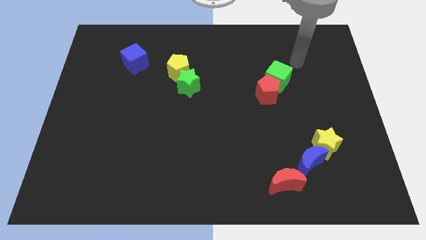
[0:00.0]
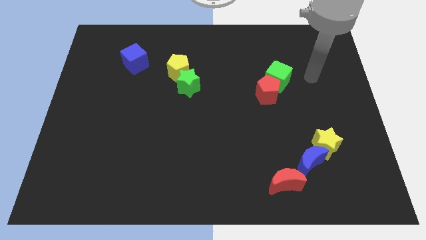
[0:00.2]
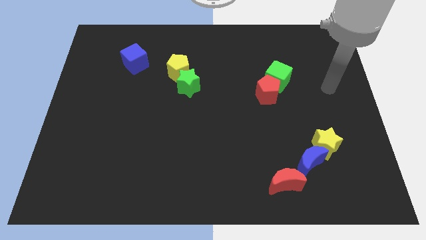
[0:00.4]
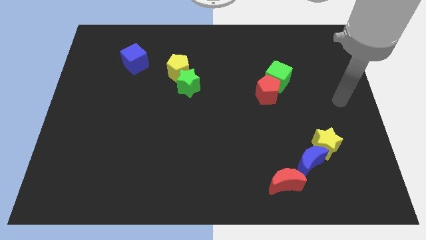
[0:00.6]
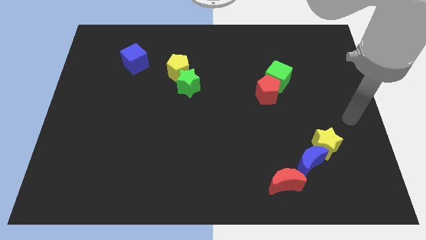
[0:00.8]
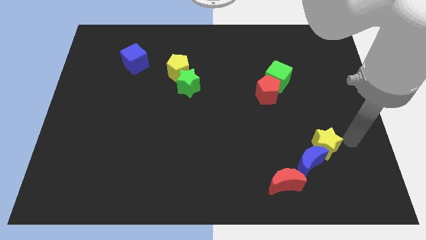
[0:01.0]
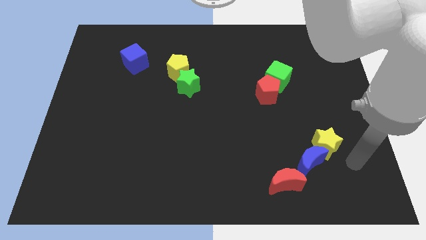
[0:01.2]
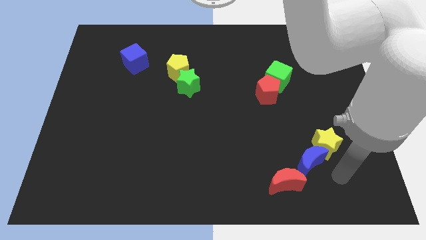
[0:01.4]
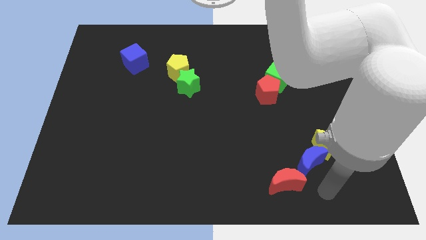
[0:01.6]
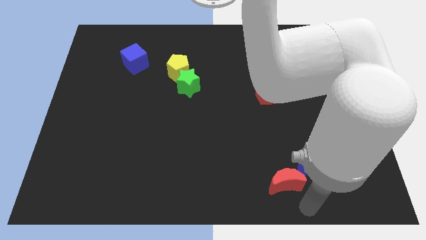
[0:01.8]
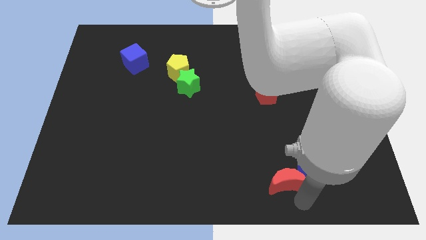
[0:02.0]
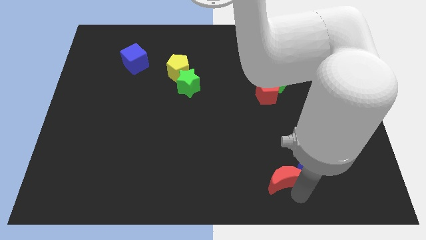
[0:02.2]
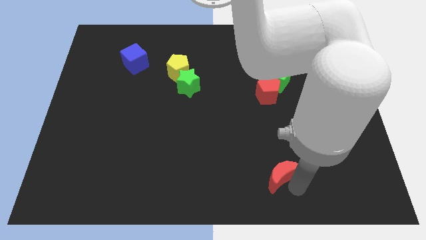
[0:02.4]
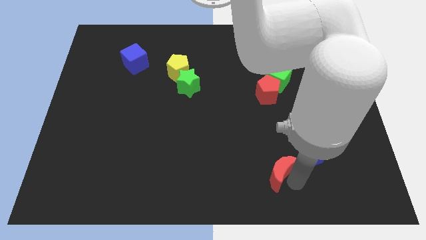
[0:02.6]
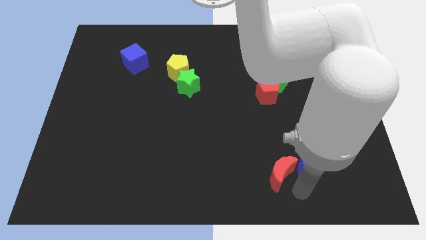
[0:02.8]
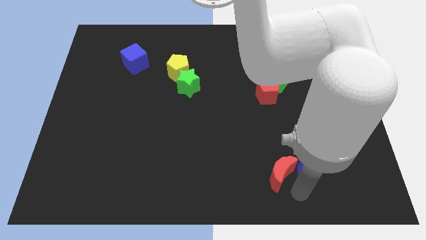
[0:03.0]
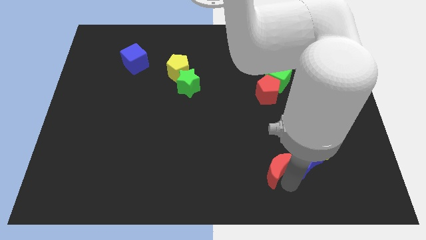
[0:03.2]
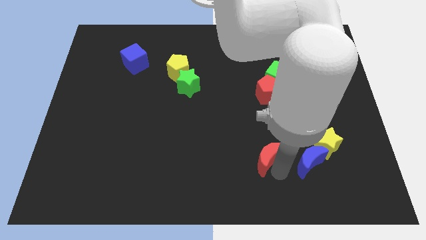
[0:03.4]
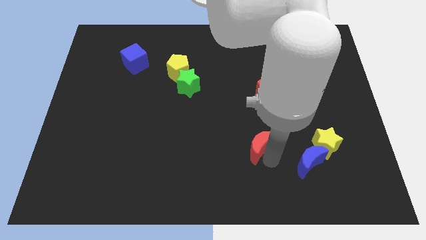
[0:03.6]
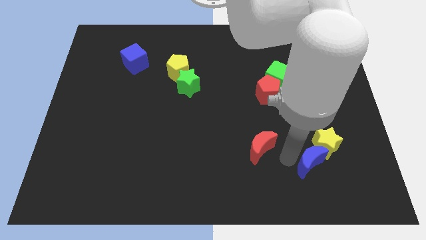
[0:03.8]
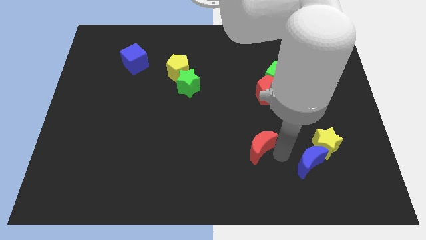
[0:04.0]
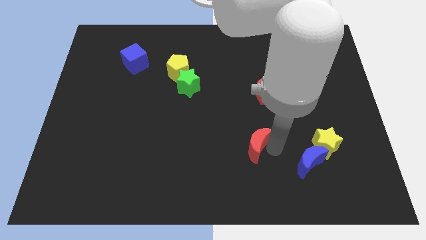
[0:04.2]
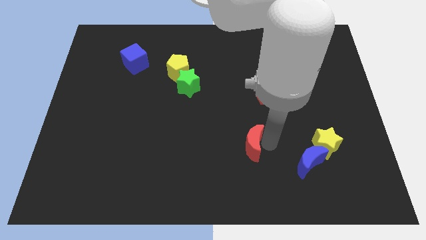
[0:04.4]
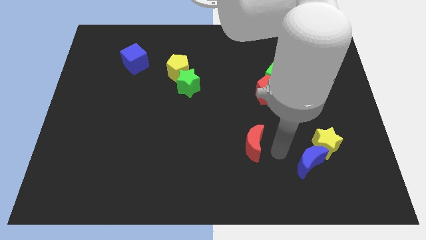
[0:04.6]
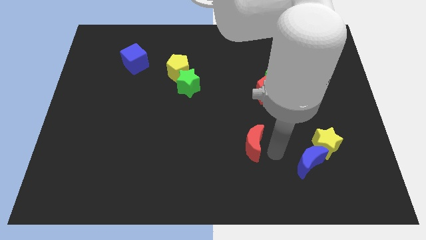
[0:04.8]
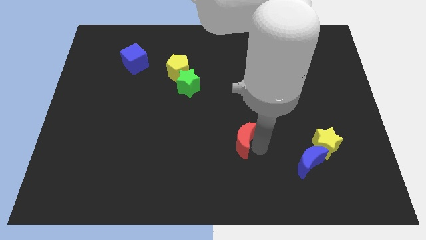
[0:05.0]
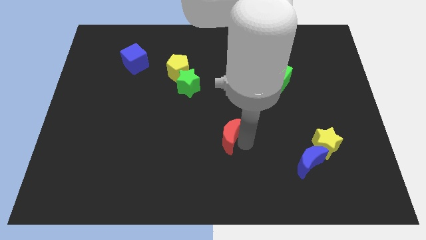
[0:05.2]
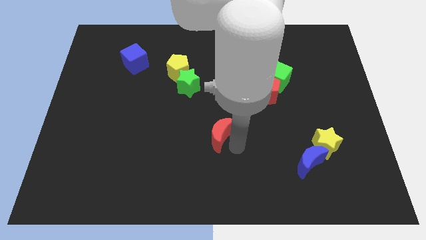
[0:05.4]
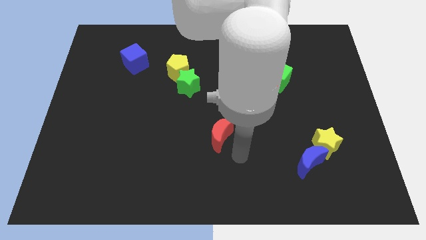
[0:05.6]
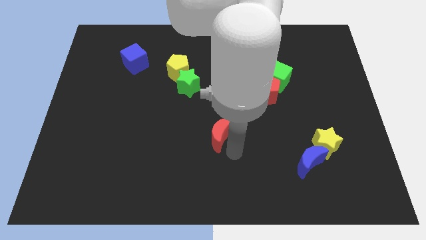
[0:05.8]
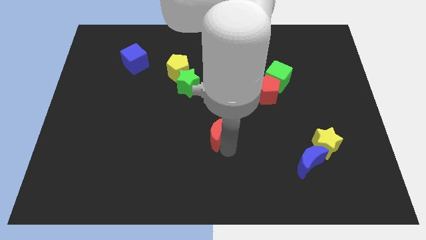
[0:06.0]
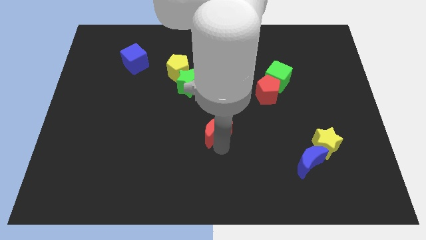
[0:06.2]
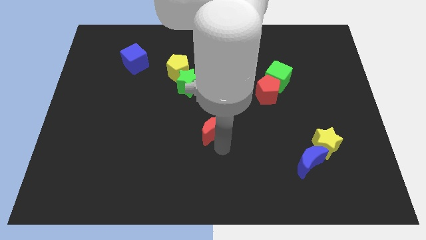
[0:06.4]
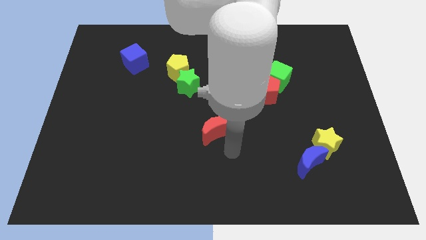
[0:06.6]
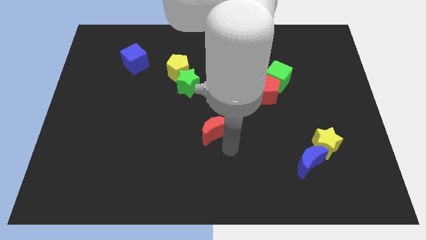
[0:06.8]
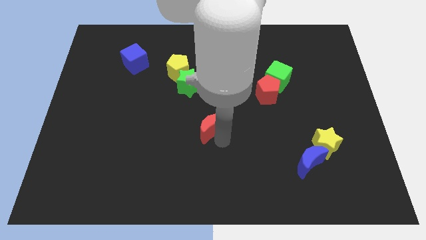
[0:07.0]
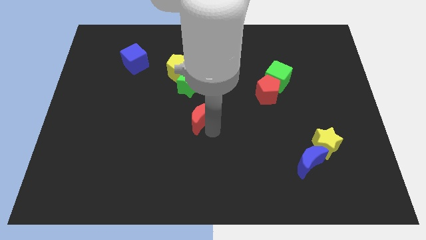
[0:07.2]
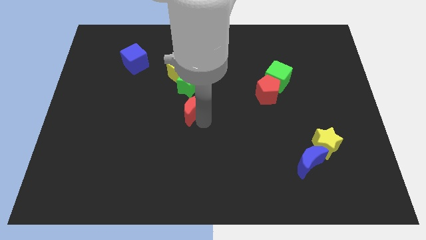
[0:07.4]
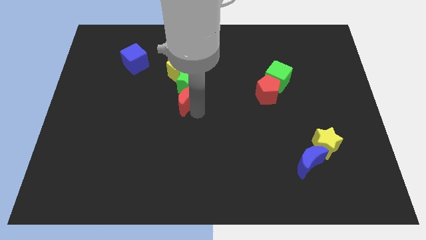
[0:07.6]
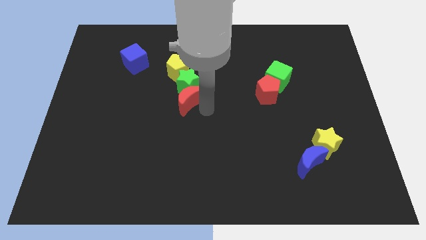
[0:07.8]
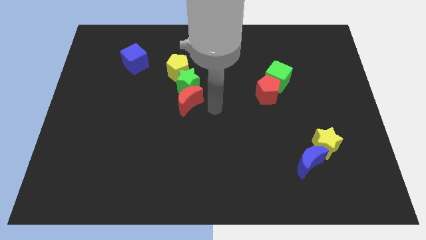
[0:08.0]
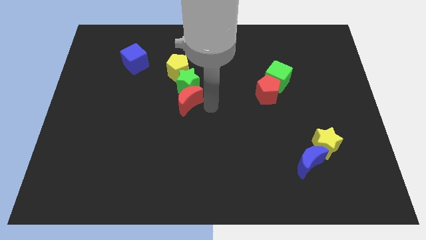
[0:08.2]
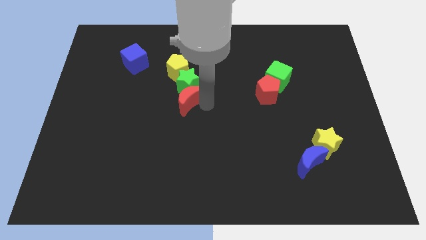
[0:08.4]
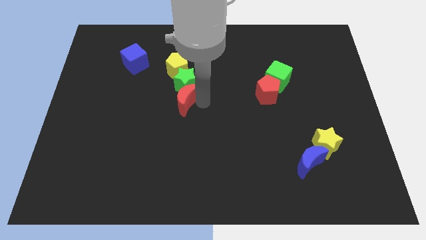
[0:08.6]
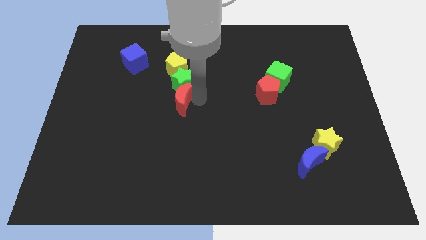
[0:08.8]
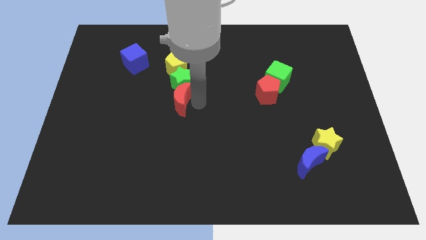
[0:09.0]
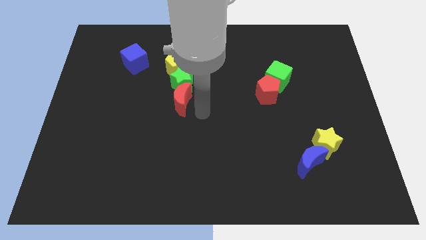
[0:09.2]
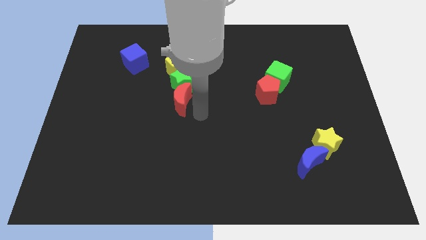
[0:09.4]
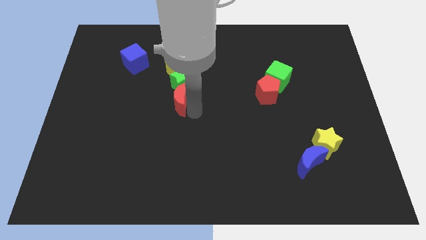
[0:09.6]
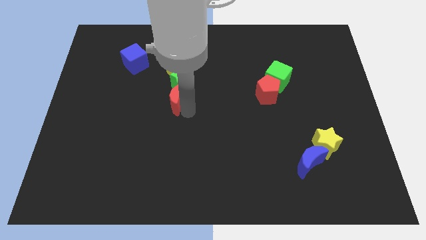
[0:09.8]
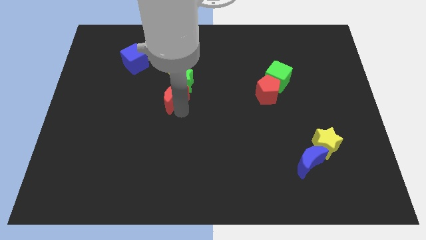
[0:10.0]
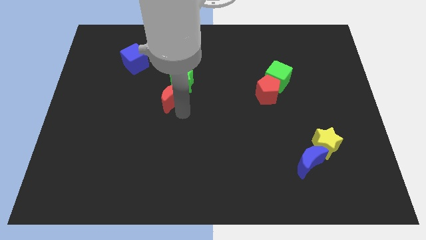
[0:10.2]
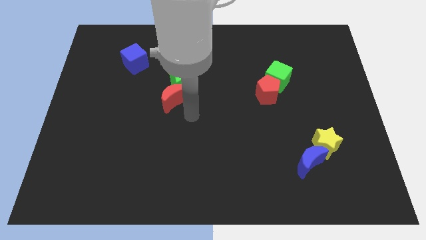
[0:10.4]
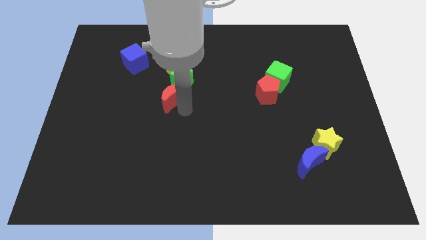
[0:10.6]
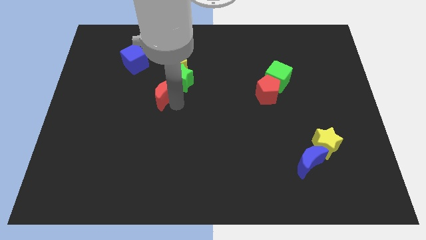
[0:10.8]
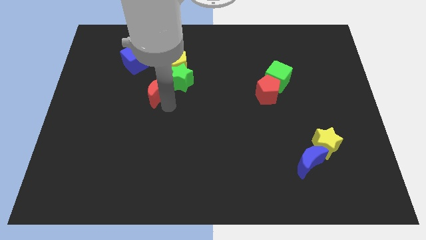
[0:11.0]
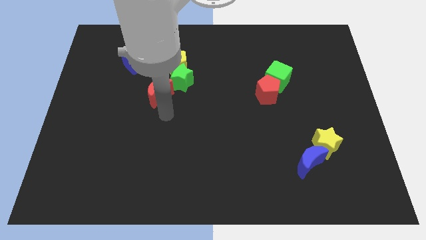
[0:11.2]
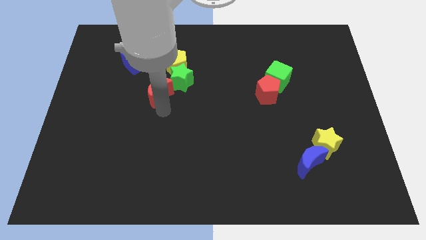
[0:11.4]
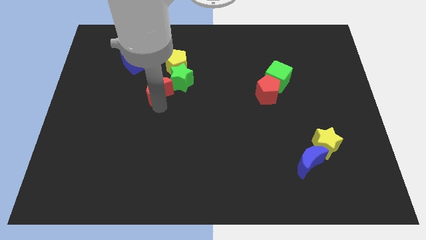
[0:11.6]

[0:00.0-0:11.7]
move the red moon to the bottom right side of the blue cube

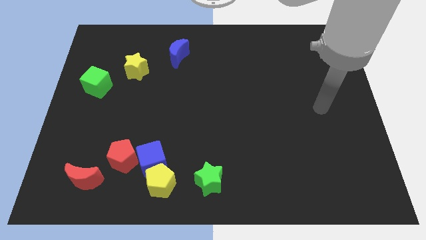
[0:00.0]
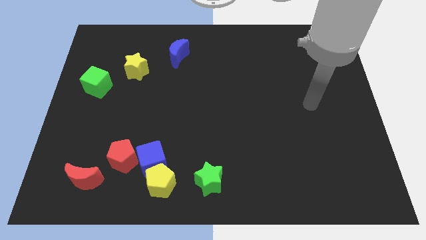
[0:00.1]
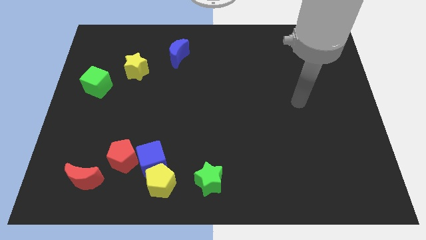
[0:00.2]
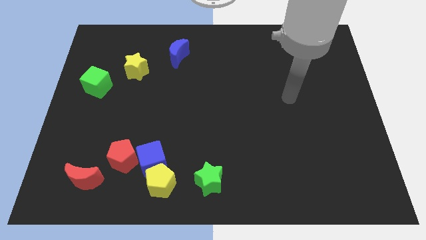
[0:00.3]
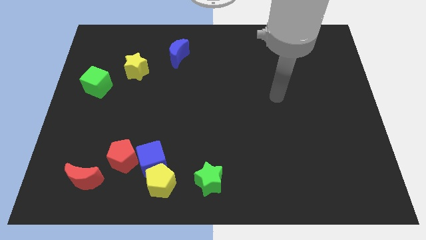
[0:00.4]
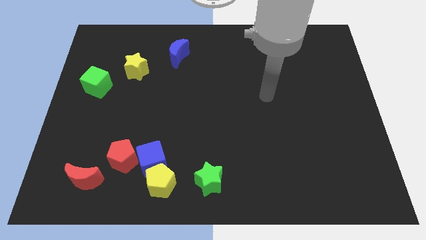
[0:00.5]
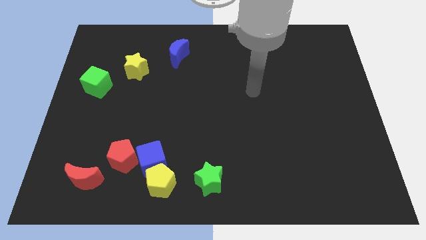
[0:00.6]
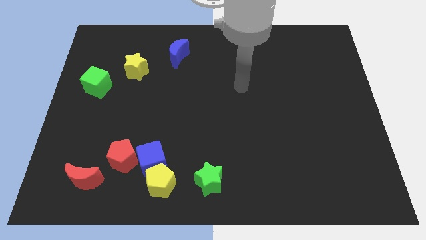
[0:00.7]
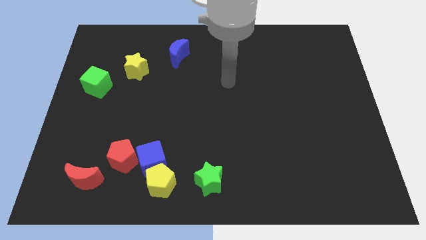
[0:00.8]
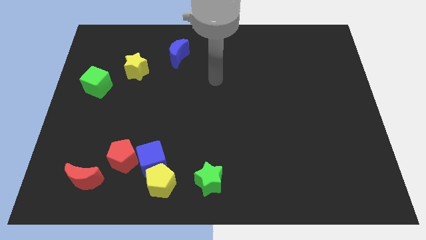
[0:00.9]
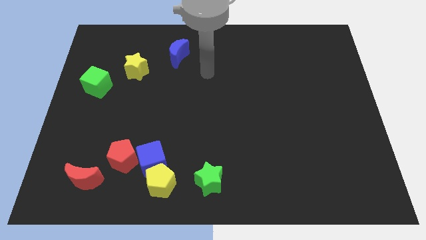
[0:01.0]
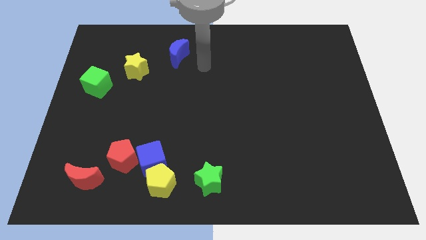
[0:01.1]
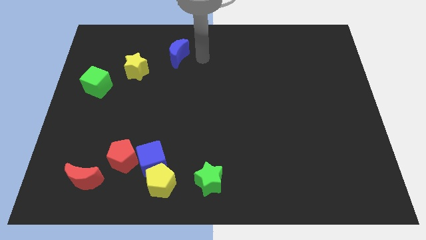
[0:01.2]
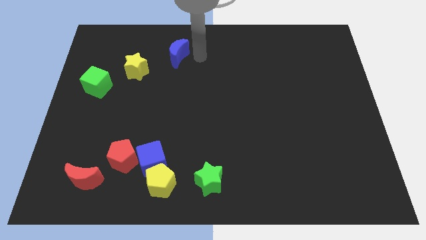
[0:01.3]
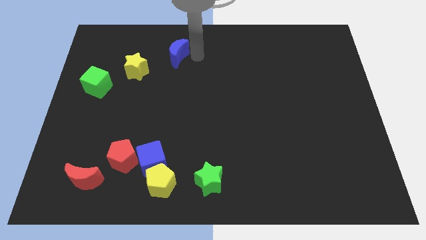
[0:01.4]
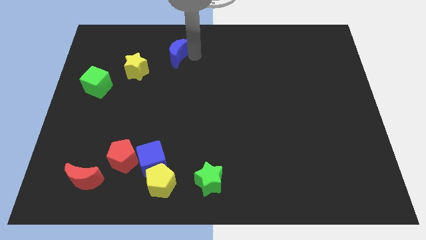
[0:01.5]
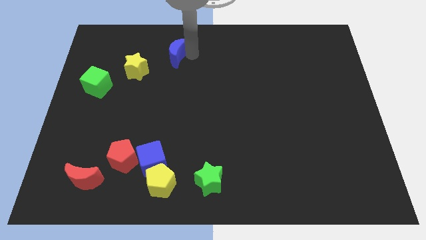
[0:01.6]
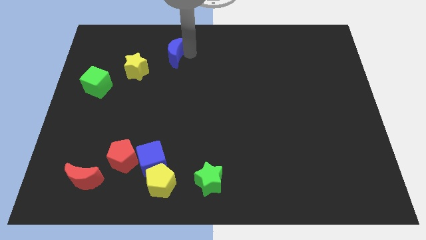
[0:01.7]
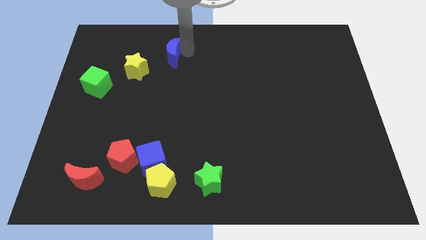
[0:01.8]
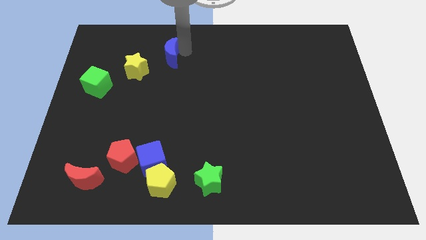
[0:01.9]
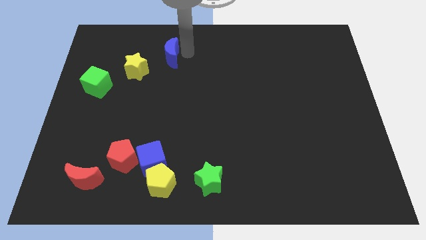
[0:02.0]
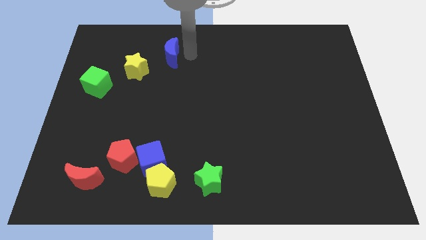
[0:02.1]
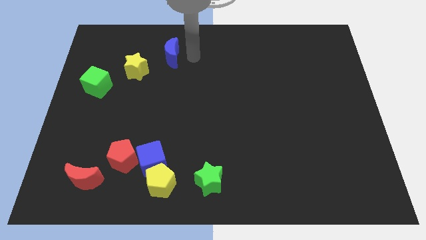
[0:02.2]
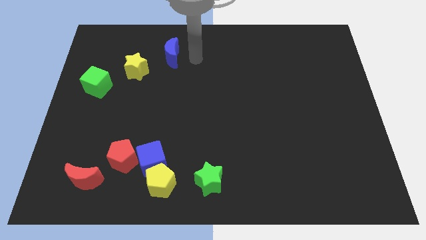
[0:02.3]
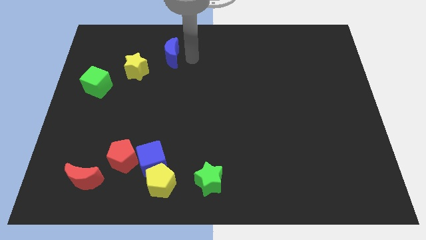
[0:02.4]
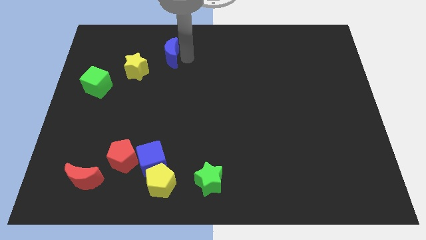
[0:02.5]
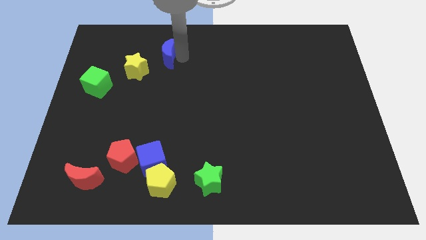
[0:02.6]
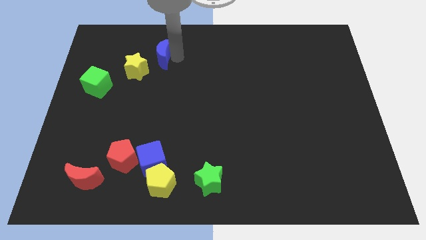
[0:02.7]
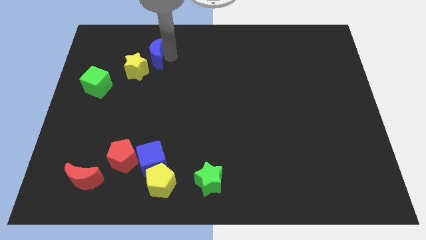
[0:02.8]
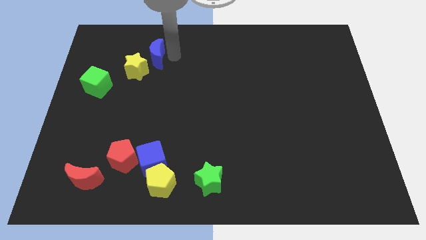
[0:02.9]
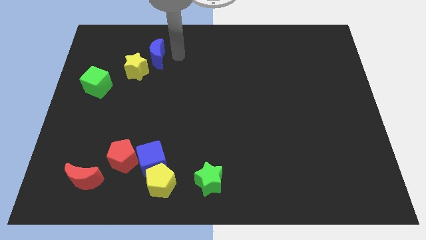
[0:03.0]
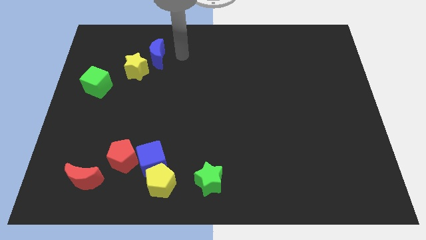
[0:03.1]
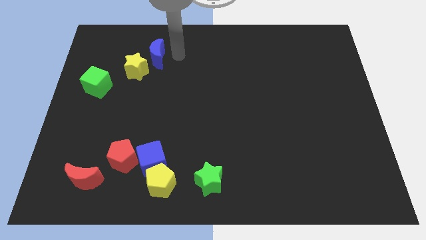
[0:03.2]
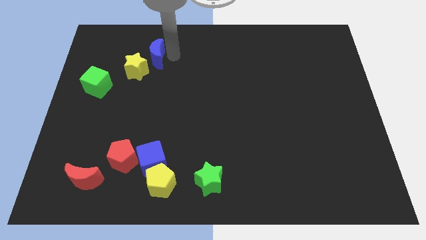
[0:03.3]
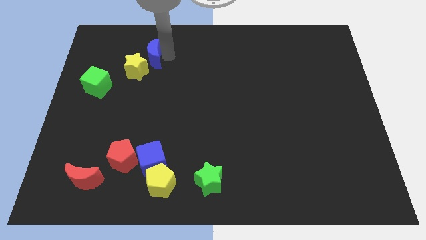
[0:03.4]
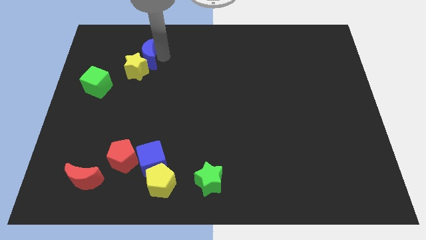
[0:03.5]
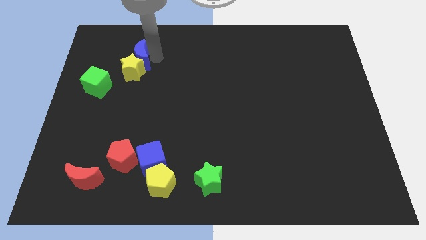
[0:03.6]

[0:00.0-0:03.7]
put the blue moon to the top left of the yellow star
